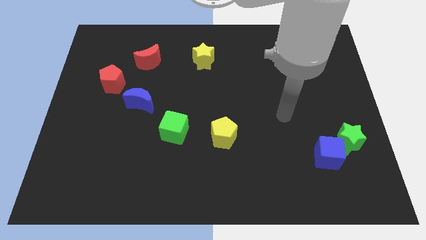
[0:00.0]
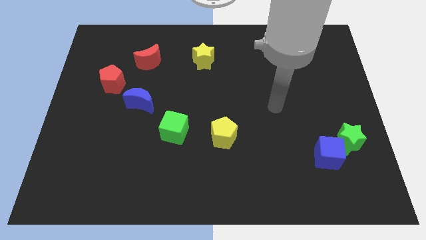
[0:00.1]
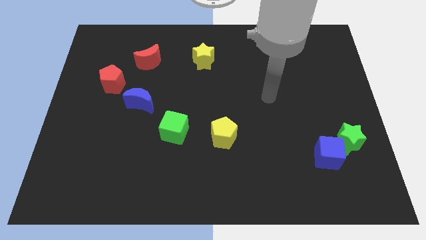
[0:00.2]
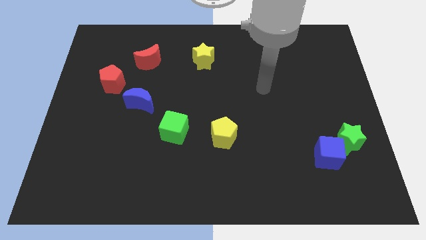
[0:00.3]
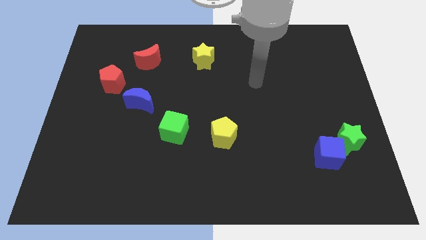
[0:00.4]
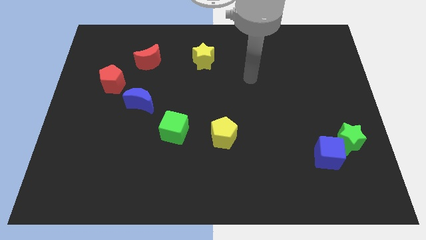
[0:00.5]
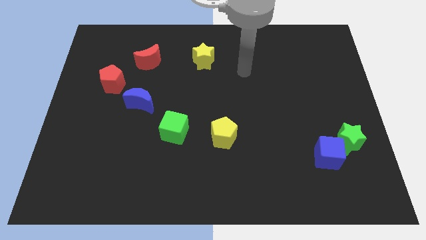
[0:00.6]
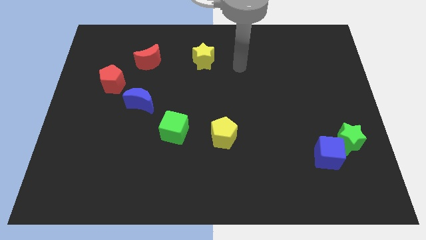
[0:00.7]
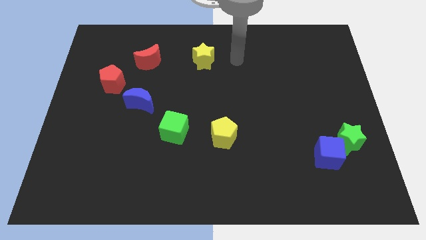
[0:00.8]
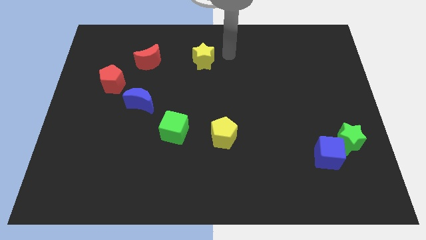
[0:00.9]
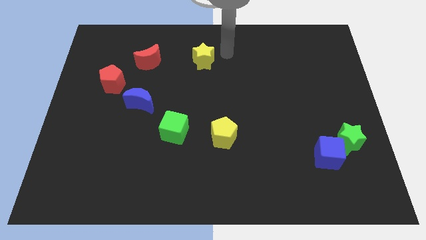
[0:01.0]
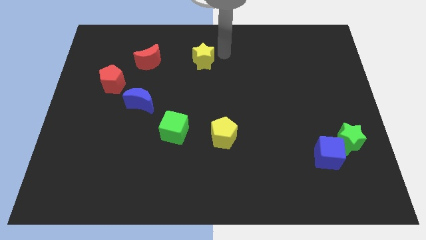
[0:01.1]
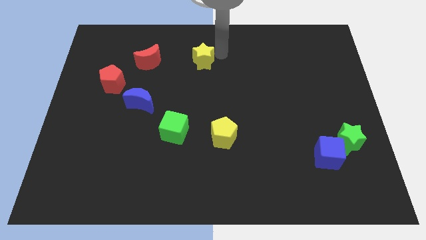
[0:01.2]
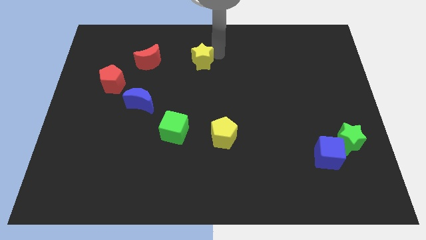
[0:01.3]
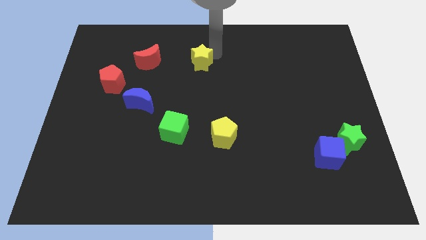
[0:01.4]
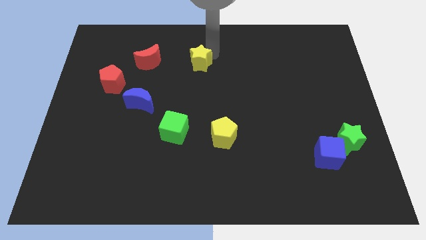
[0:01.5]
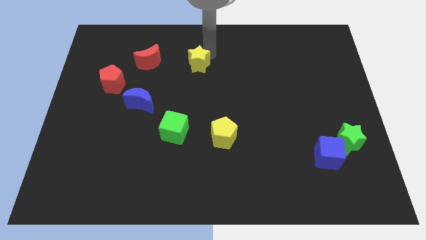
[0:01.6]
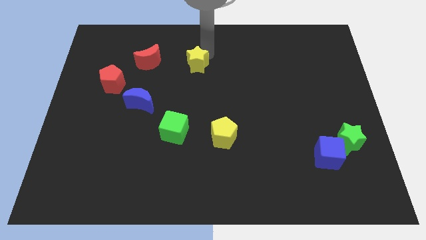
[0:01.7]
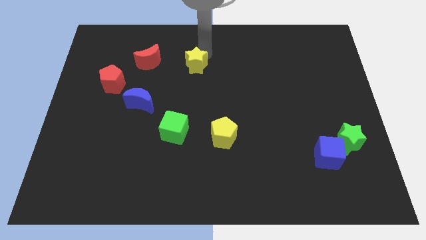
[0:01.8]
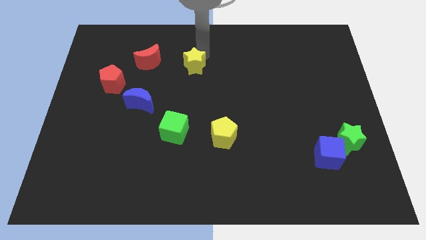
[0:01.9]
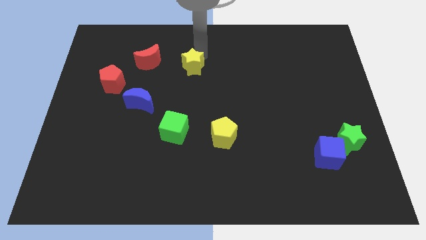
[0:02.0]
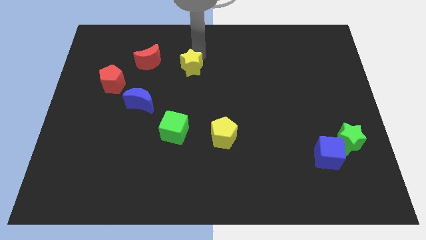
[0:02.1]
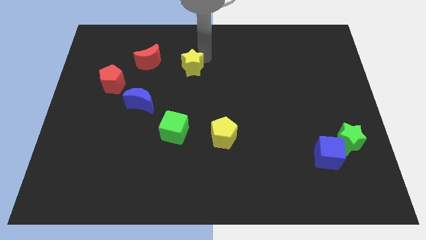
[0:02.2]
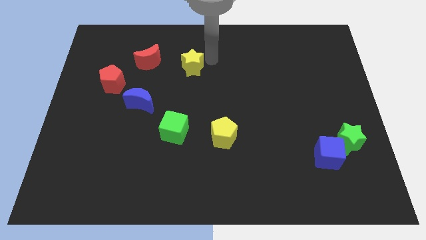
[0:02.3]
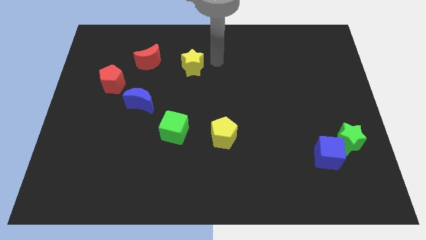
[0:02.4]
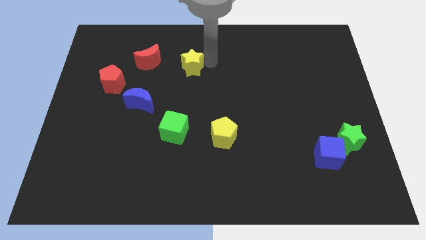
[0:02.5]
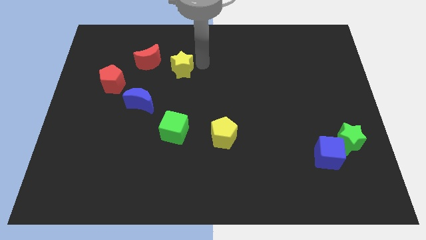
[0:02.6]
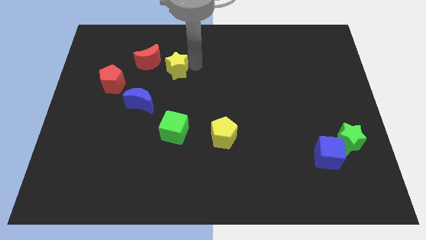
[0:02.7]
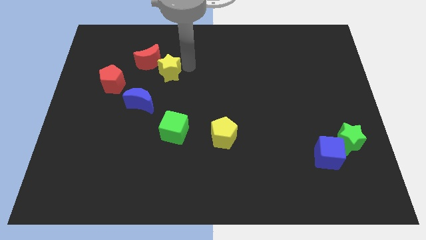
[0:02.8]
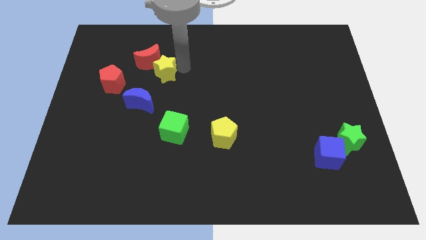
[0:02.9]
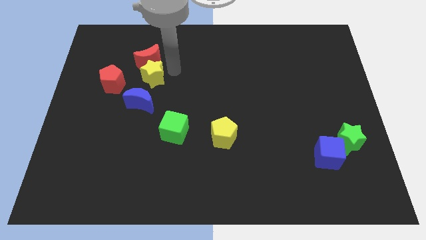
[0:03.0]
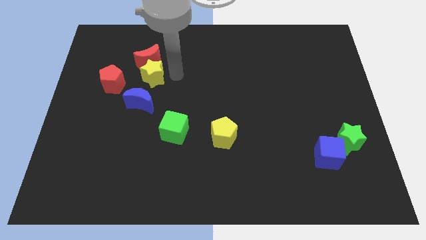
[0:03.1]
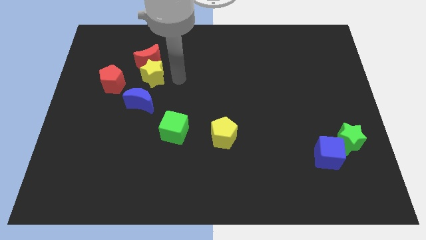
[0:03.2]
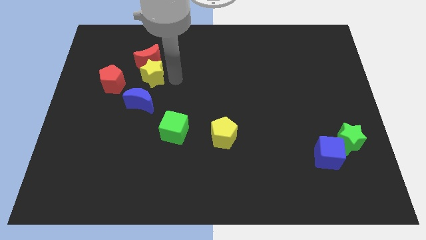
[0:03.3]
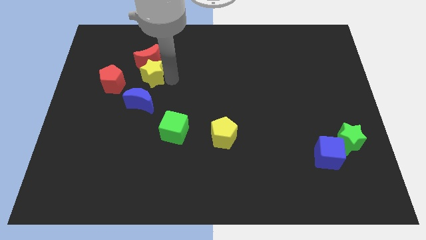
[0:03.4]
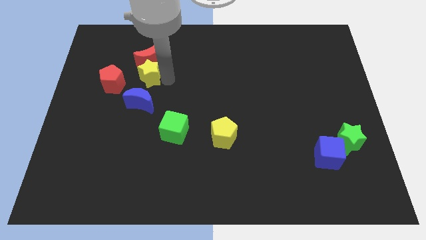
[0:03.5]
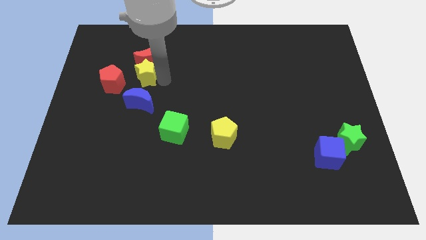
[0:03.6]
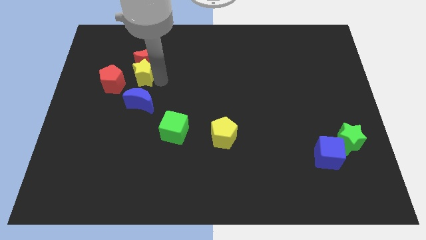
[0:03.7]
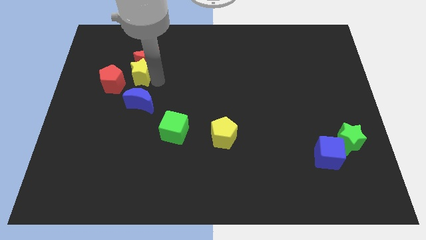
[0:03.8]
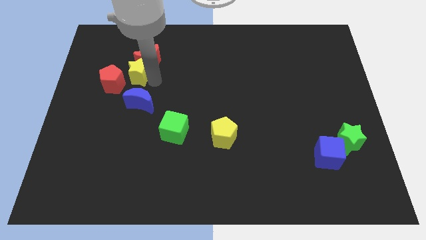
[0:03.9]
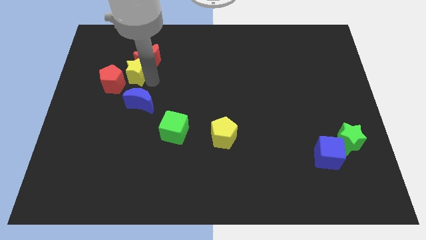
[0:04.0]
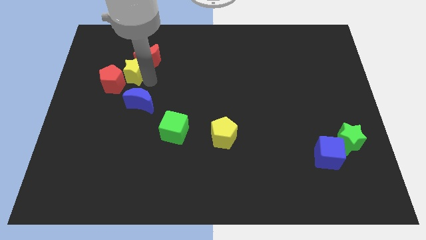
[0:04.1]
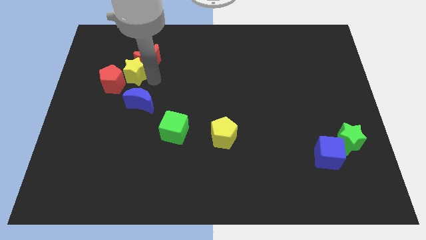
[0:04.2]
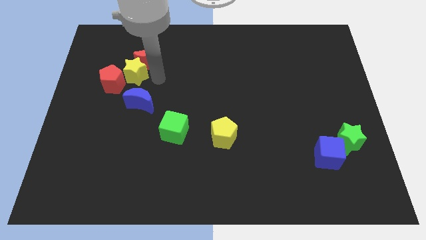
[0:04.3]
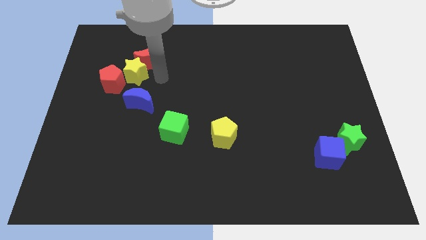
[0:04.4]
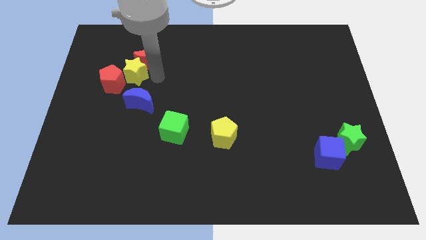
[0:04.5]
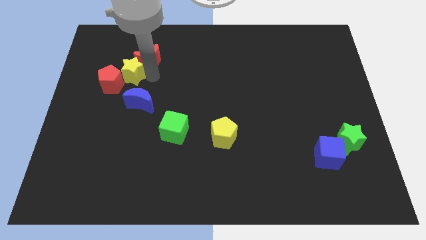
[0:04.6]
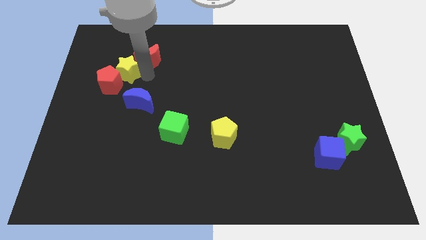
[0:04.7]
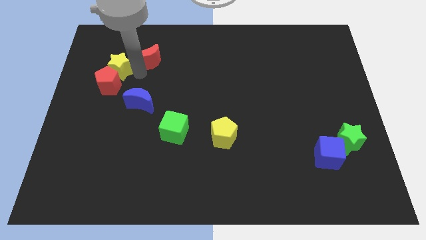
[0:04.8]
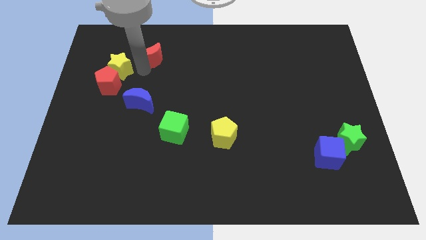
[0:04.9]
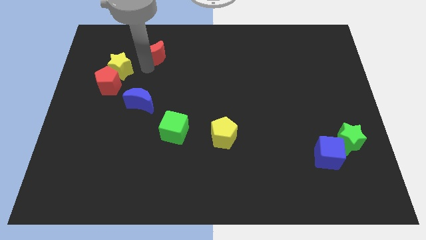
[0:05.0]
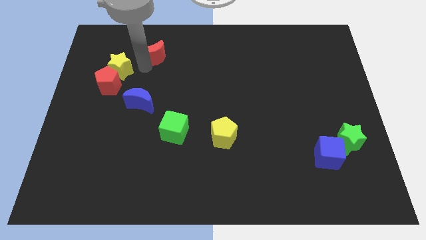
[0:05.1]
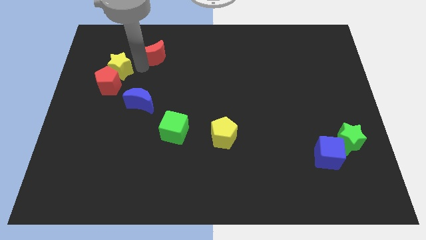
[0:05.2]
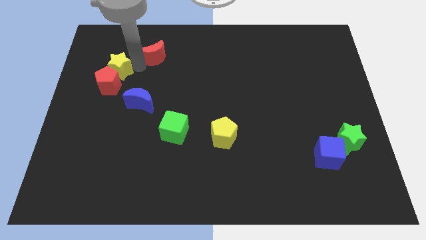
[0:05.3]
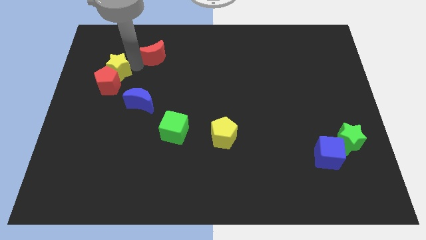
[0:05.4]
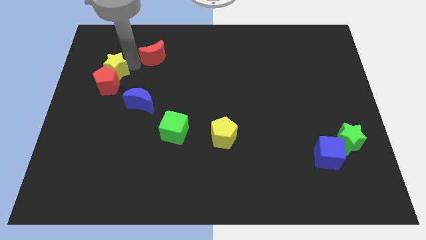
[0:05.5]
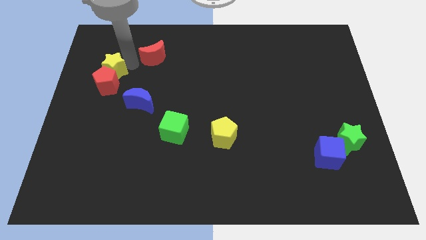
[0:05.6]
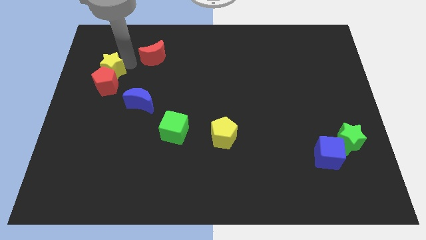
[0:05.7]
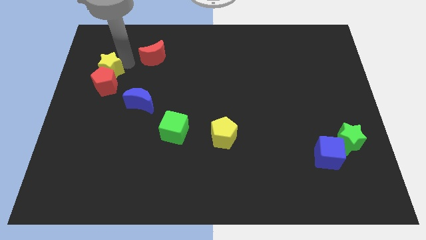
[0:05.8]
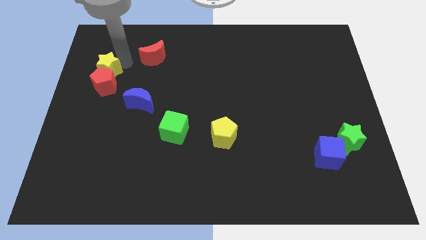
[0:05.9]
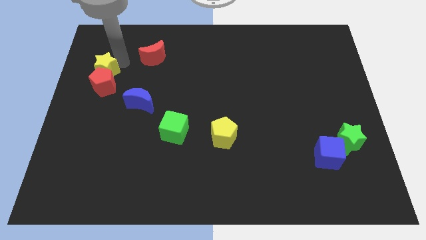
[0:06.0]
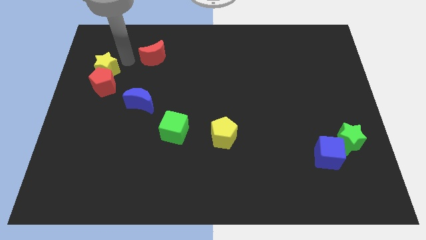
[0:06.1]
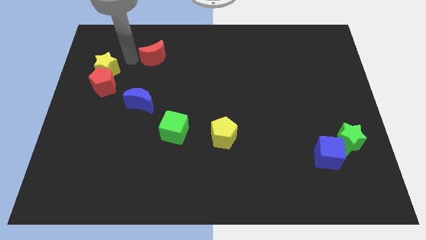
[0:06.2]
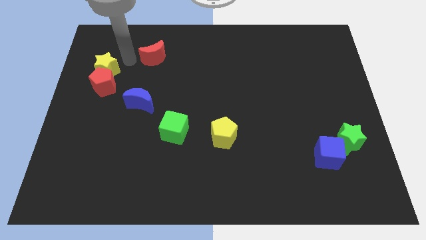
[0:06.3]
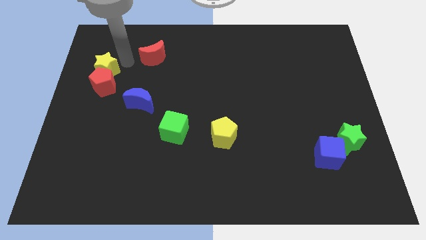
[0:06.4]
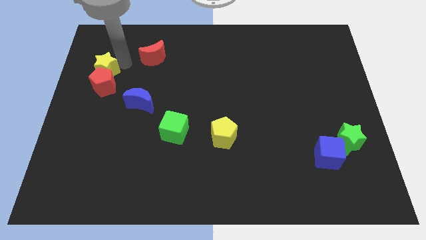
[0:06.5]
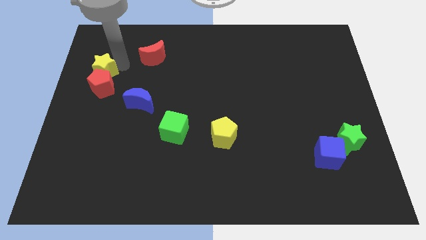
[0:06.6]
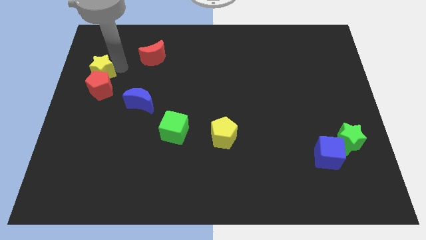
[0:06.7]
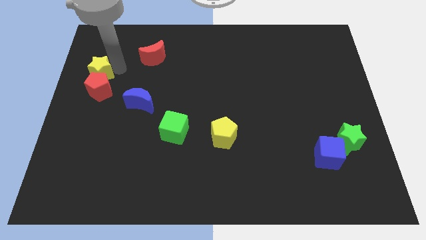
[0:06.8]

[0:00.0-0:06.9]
slide the yellow star to the center left

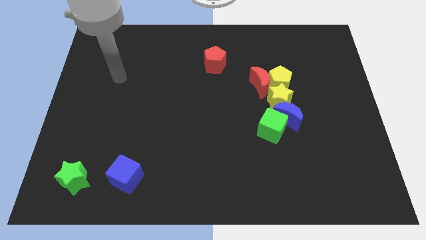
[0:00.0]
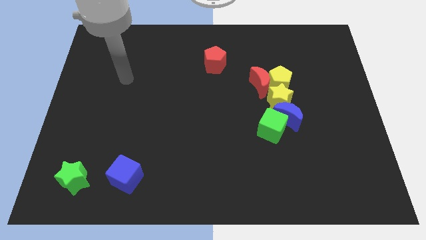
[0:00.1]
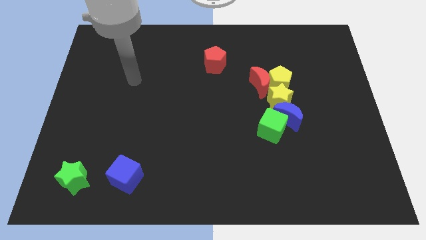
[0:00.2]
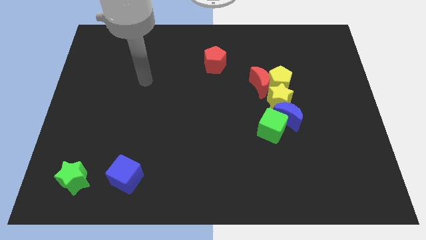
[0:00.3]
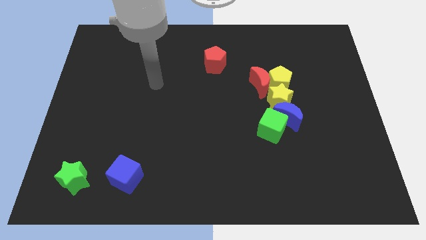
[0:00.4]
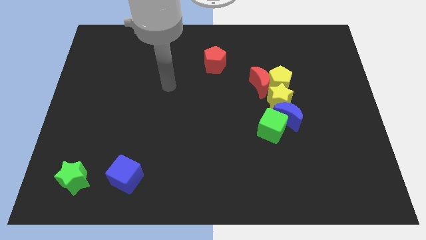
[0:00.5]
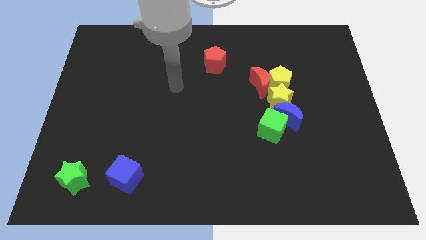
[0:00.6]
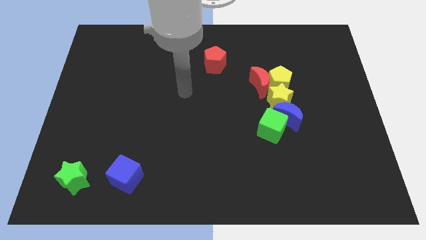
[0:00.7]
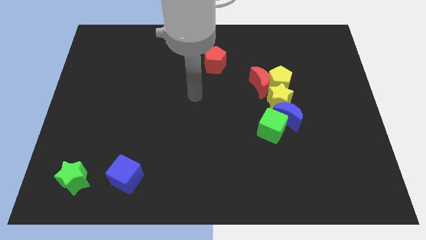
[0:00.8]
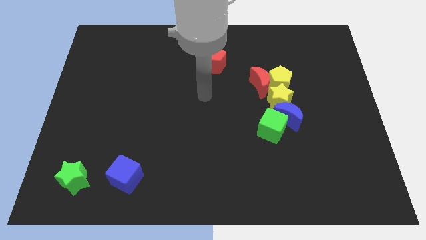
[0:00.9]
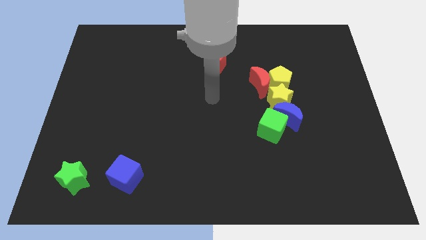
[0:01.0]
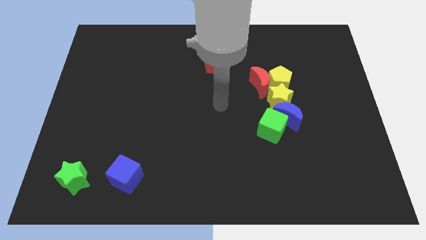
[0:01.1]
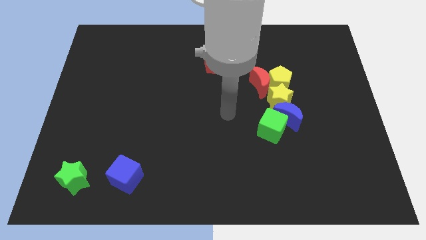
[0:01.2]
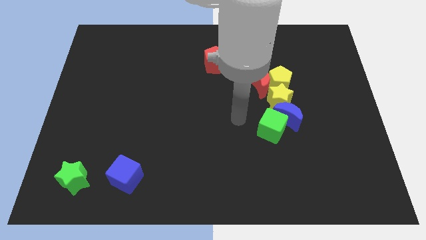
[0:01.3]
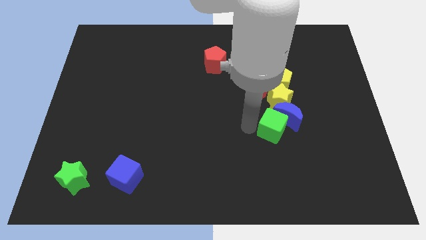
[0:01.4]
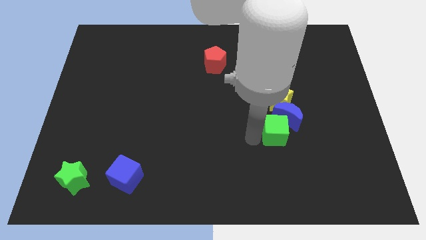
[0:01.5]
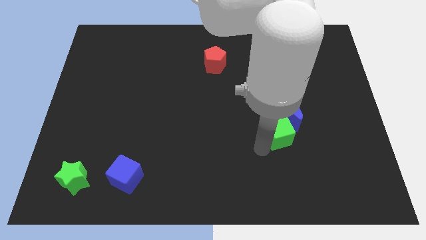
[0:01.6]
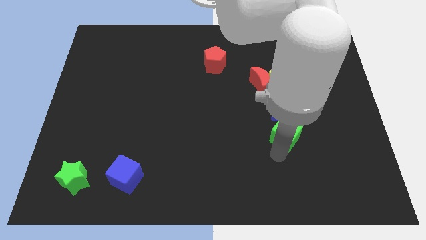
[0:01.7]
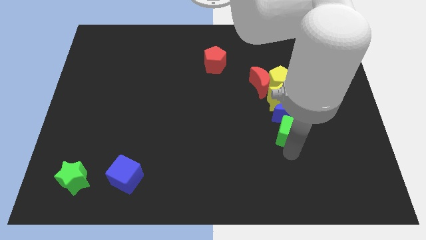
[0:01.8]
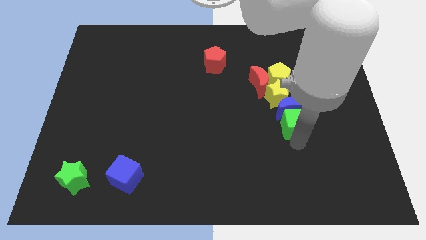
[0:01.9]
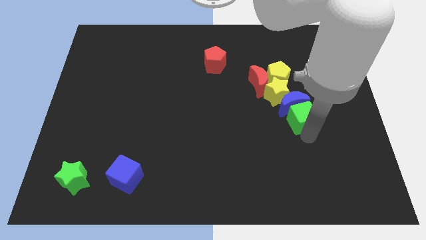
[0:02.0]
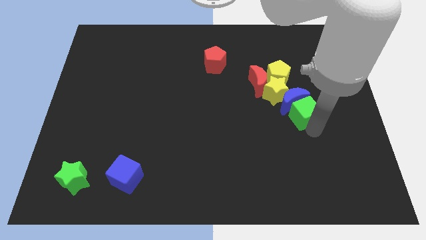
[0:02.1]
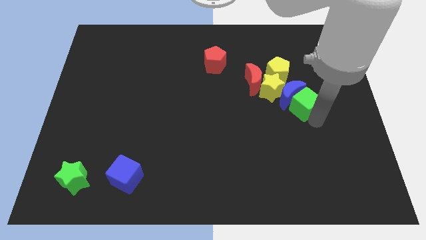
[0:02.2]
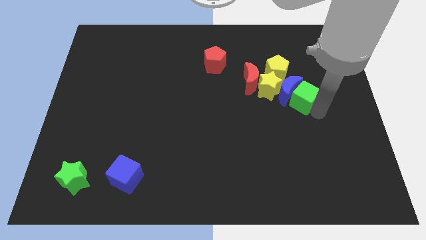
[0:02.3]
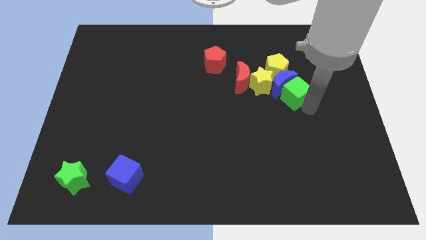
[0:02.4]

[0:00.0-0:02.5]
slide the yellow star to the center
